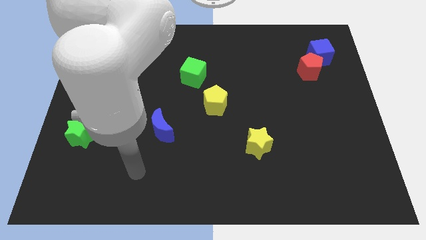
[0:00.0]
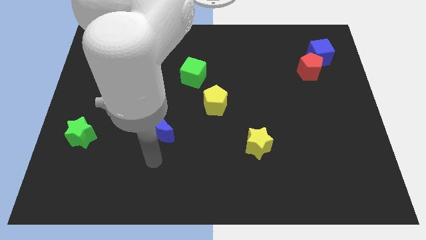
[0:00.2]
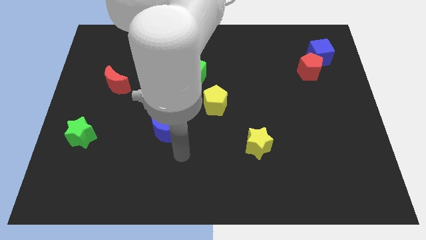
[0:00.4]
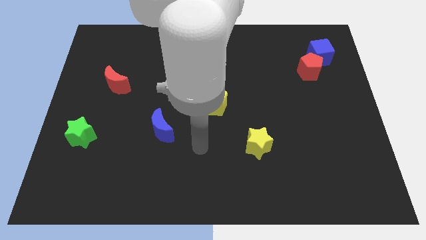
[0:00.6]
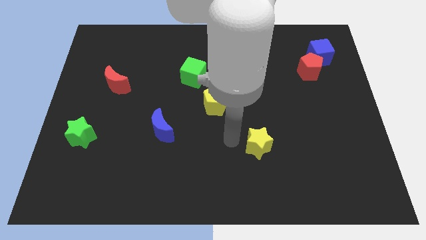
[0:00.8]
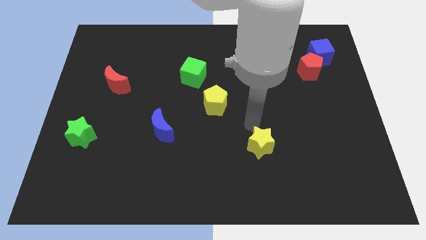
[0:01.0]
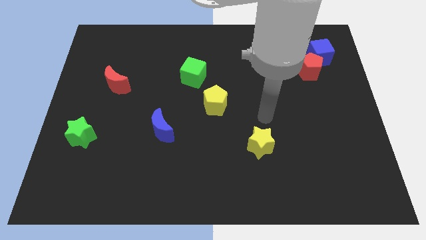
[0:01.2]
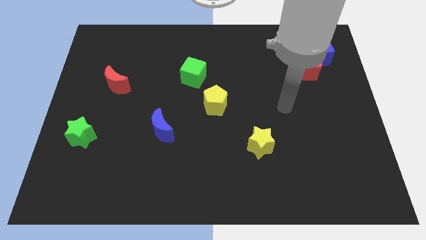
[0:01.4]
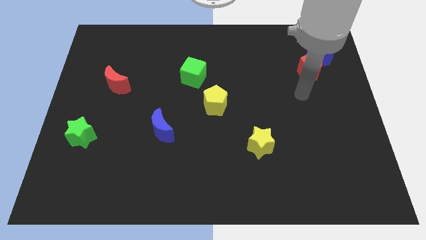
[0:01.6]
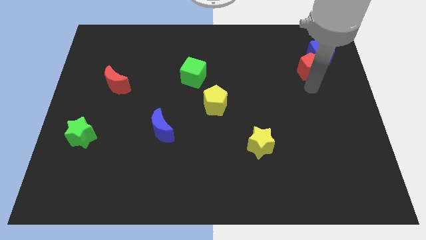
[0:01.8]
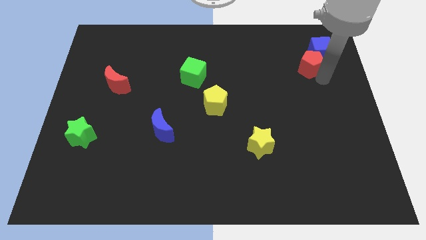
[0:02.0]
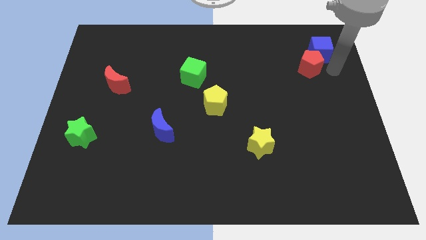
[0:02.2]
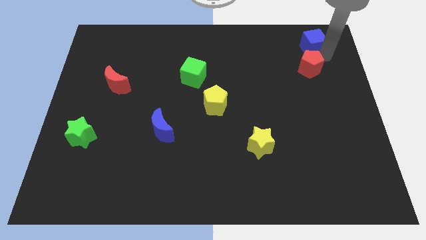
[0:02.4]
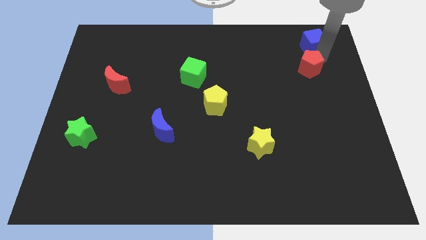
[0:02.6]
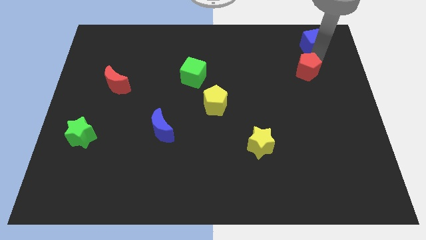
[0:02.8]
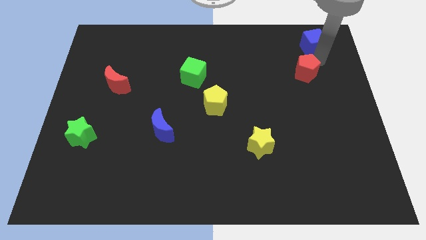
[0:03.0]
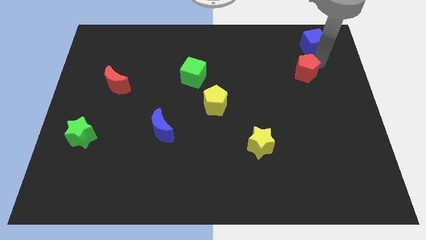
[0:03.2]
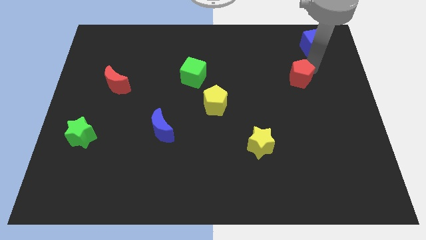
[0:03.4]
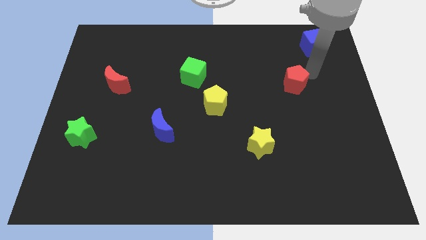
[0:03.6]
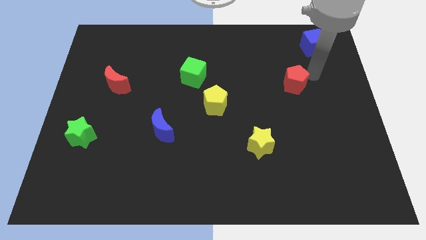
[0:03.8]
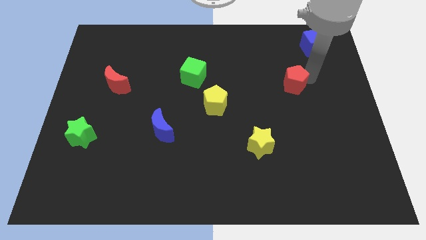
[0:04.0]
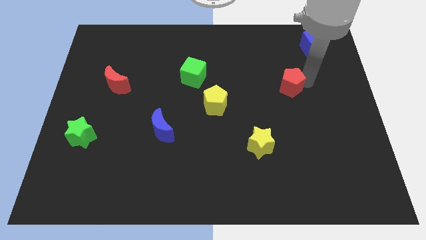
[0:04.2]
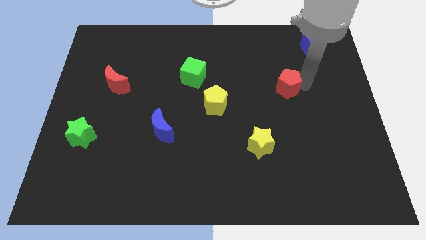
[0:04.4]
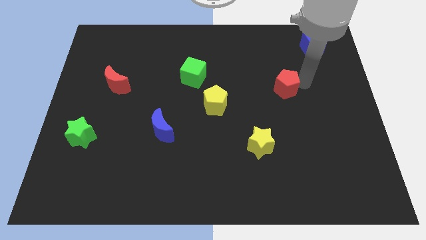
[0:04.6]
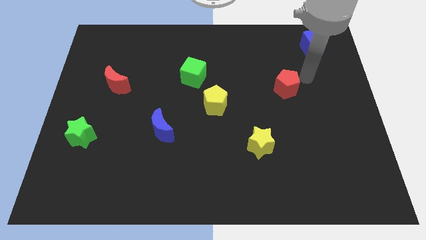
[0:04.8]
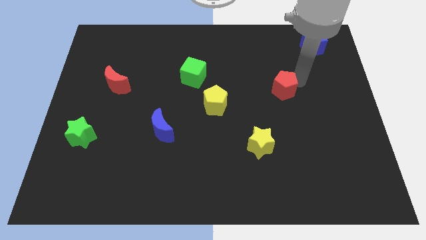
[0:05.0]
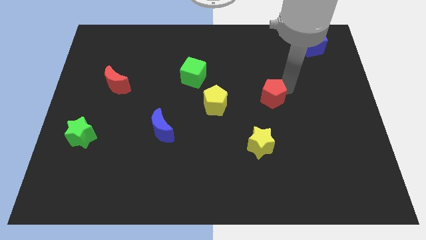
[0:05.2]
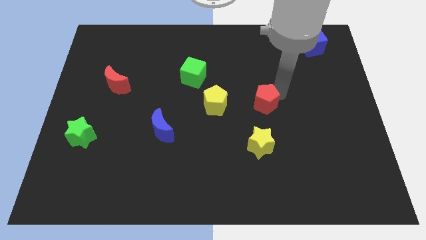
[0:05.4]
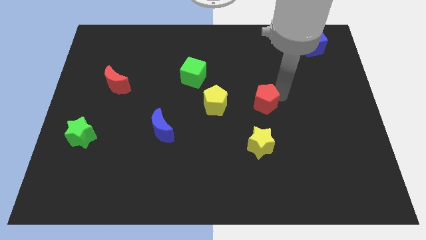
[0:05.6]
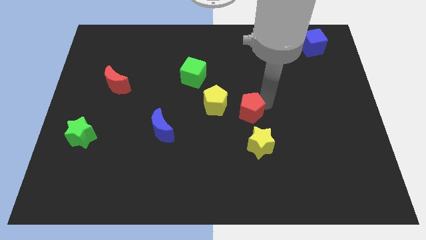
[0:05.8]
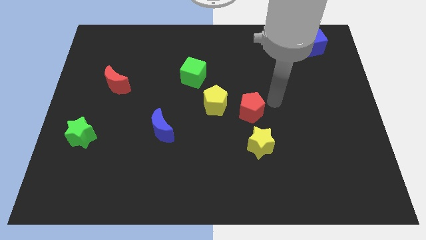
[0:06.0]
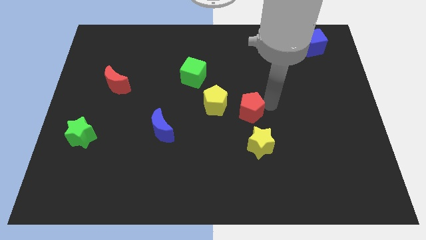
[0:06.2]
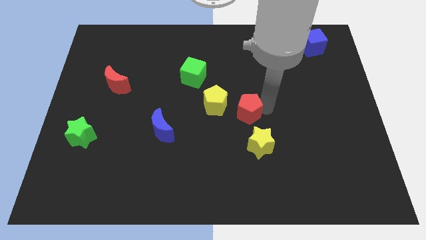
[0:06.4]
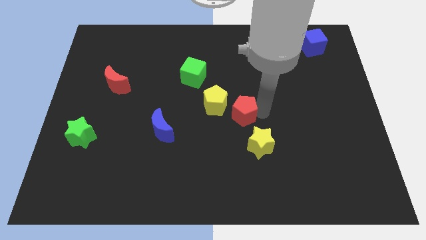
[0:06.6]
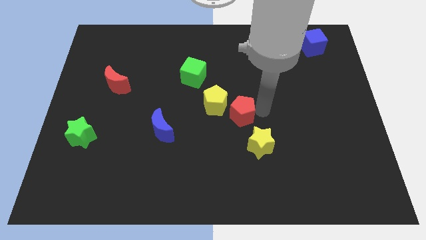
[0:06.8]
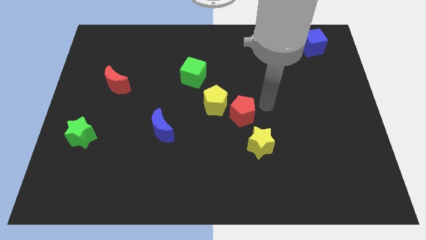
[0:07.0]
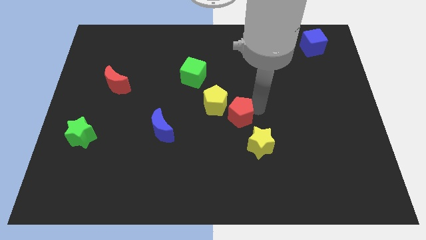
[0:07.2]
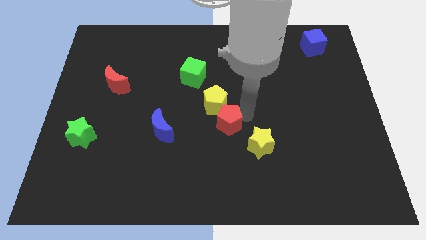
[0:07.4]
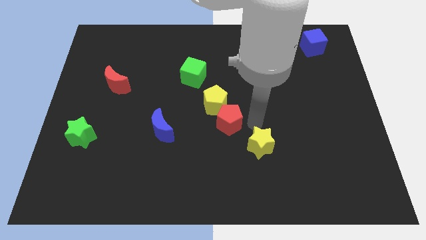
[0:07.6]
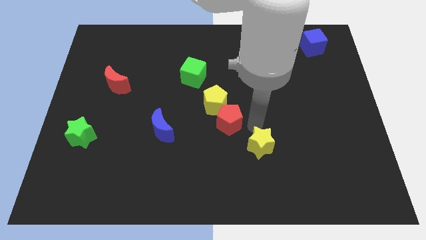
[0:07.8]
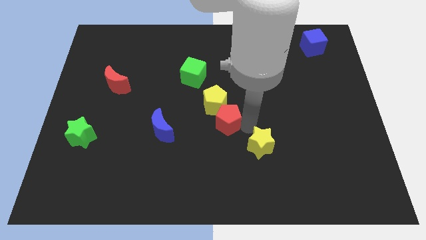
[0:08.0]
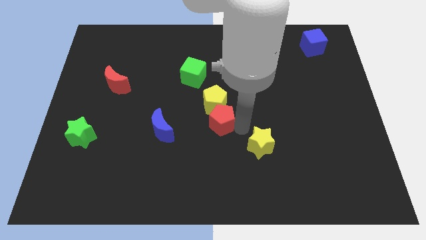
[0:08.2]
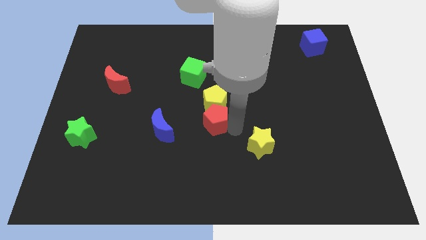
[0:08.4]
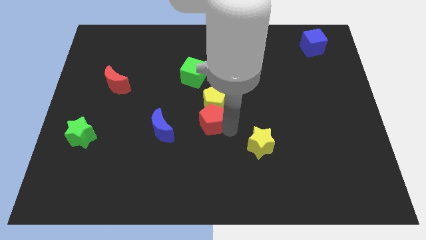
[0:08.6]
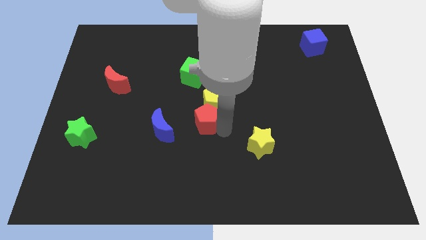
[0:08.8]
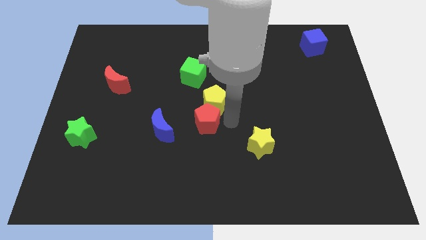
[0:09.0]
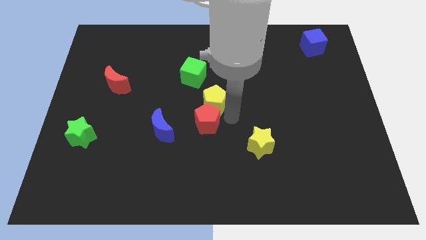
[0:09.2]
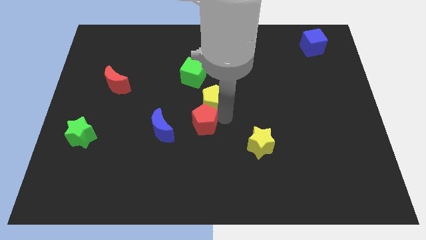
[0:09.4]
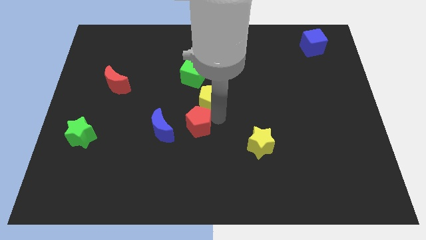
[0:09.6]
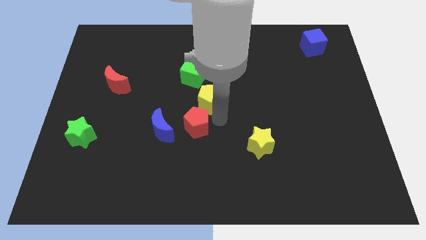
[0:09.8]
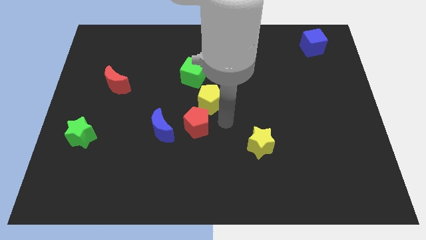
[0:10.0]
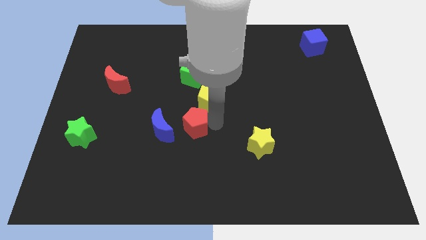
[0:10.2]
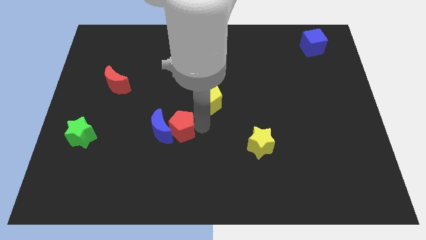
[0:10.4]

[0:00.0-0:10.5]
move the red pentagon towards the blue moon

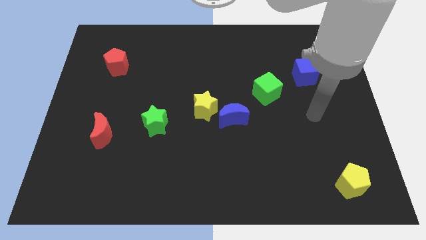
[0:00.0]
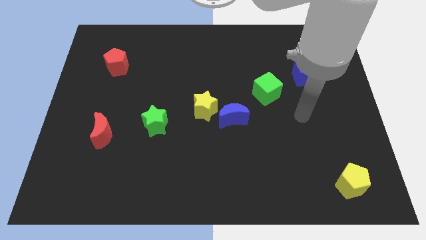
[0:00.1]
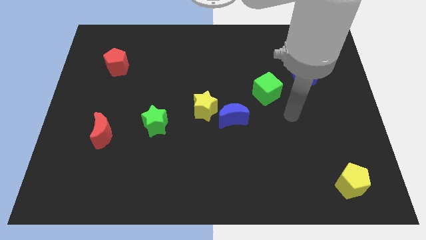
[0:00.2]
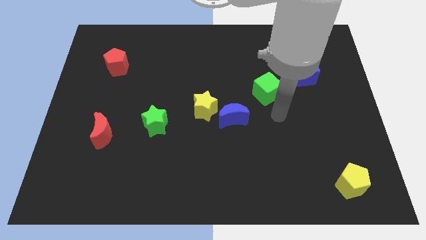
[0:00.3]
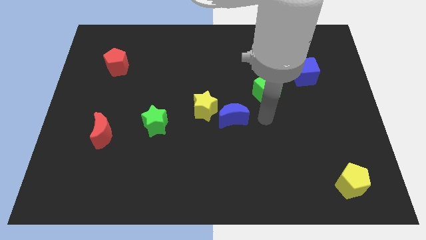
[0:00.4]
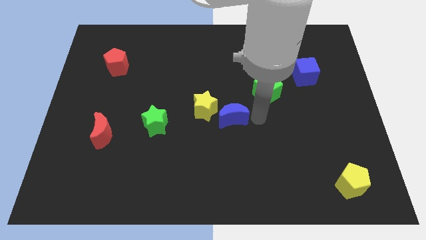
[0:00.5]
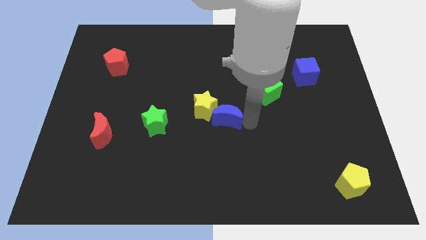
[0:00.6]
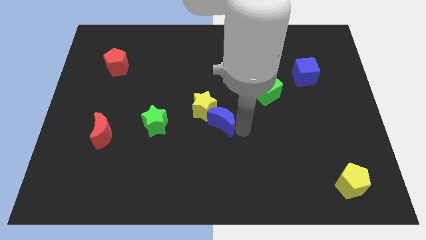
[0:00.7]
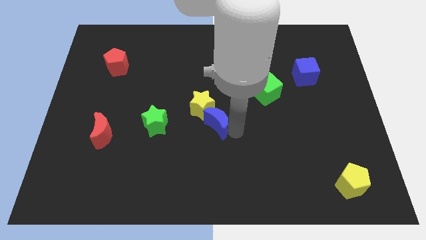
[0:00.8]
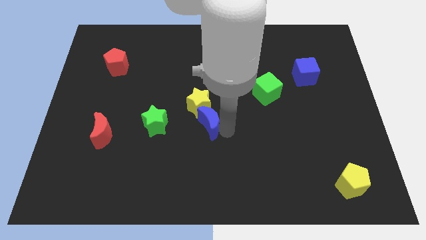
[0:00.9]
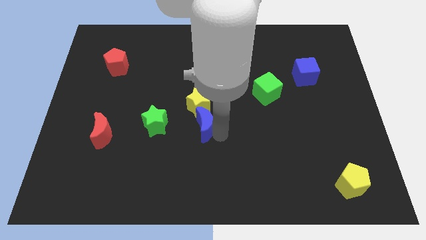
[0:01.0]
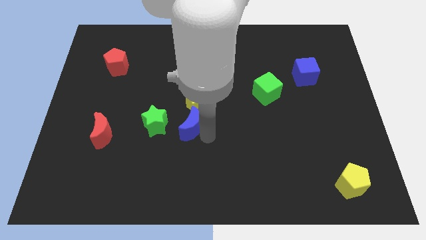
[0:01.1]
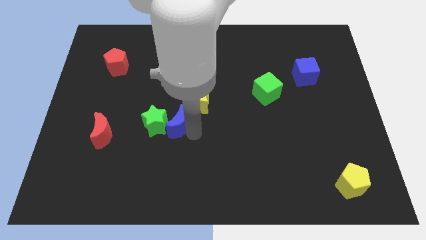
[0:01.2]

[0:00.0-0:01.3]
push the green star towards the blue moon

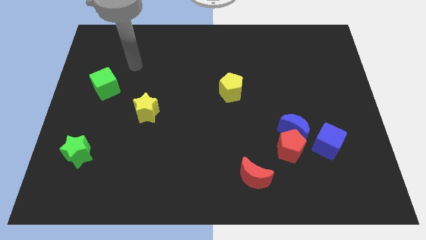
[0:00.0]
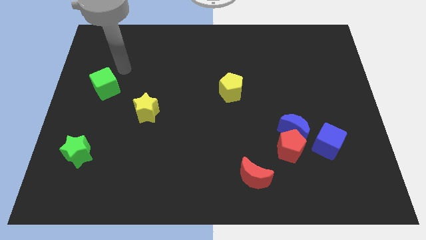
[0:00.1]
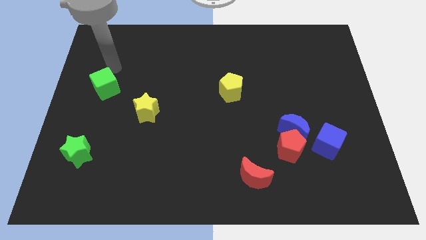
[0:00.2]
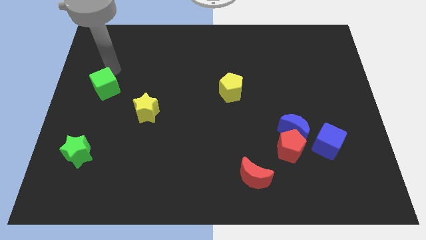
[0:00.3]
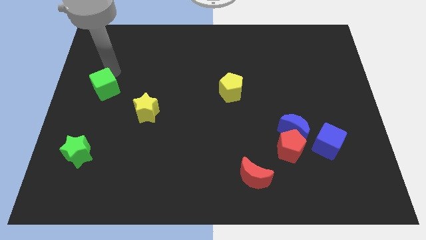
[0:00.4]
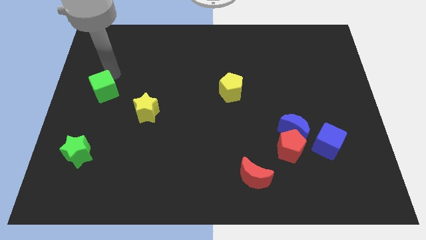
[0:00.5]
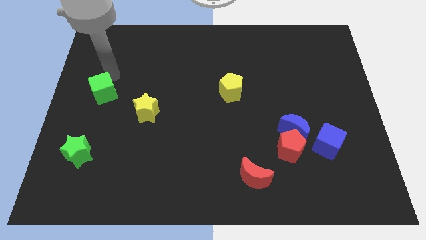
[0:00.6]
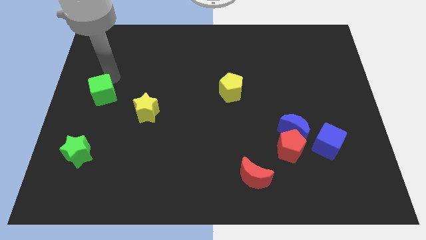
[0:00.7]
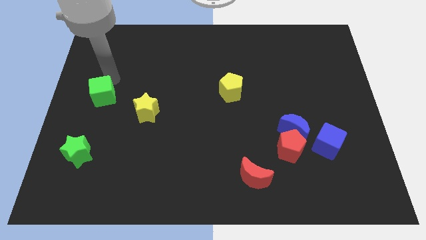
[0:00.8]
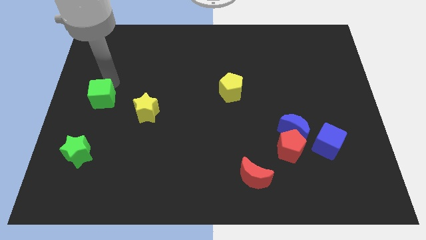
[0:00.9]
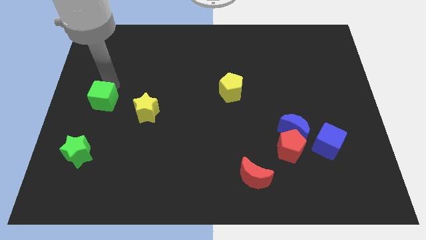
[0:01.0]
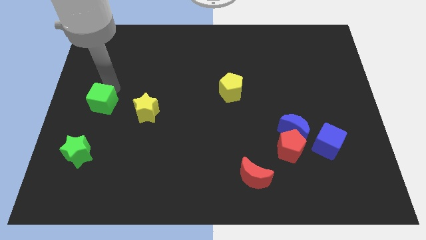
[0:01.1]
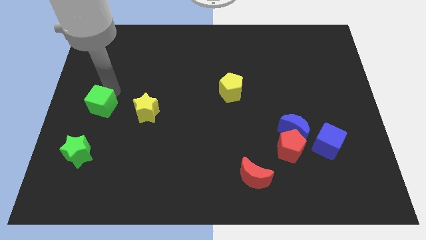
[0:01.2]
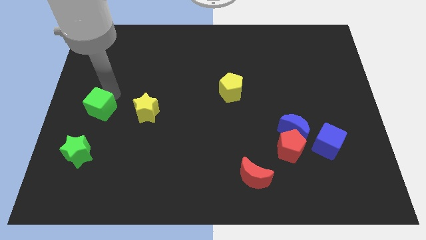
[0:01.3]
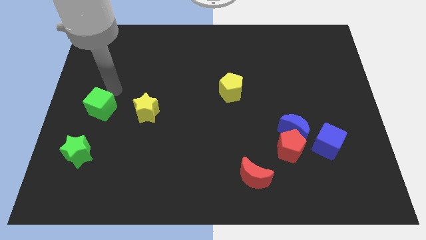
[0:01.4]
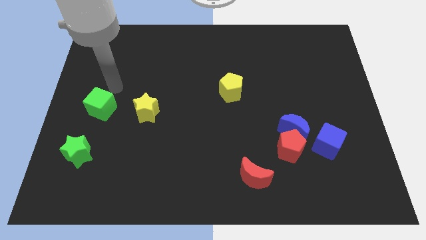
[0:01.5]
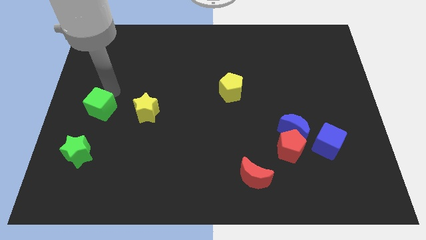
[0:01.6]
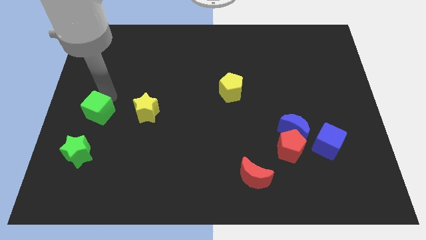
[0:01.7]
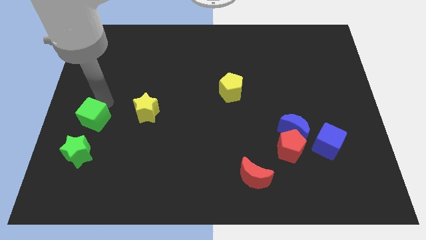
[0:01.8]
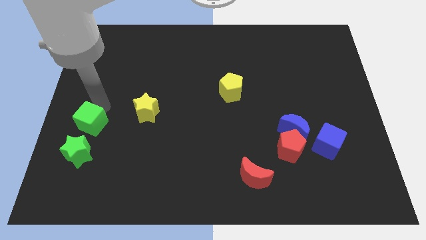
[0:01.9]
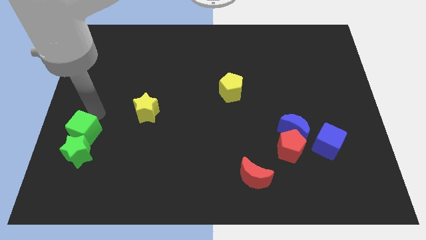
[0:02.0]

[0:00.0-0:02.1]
slide the green cube close to the green star
